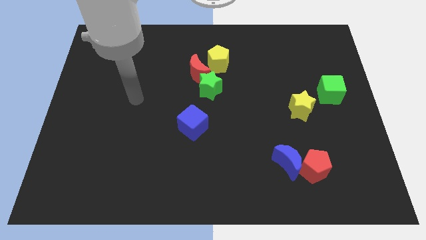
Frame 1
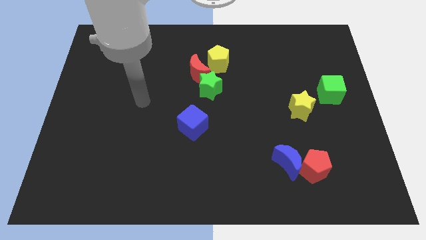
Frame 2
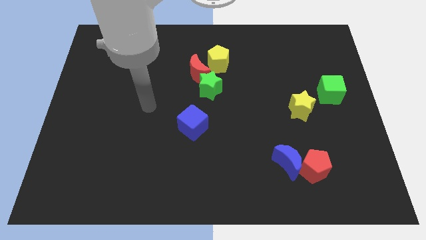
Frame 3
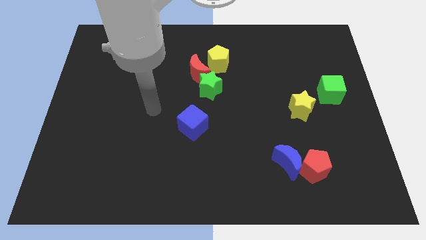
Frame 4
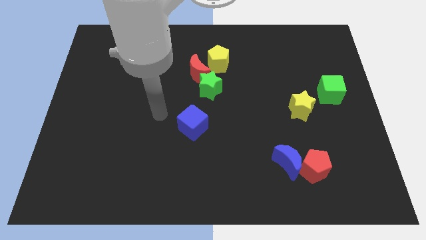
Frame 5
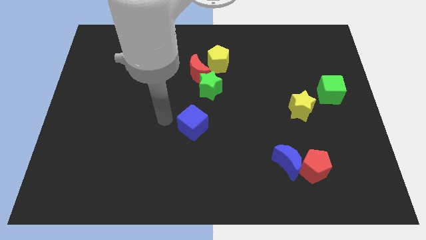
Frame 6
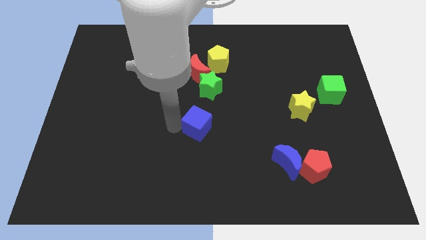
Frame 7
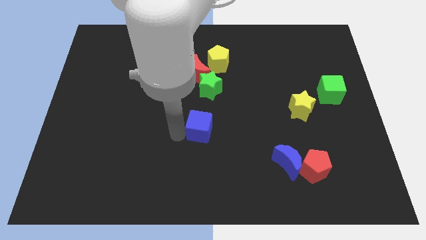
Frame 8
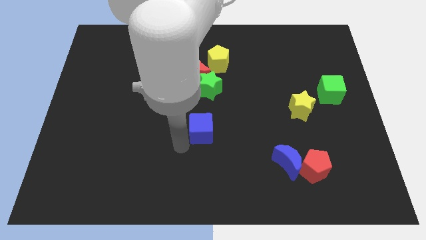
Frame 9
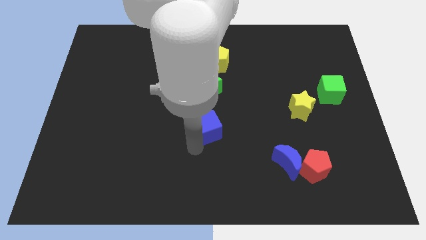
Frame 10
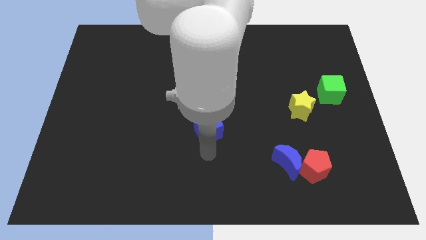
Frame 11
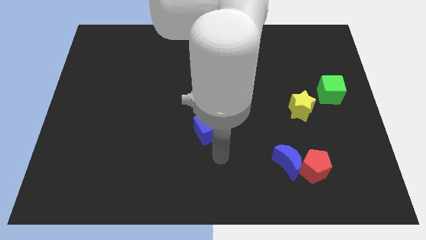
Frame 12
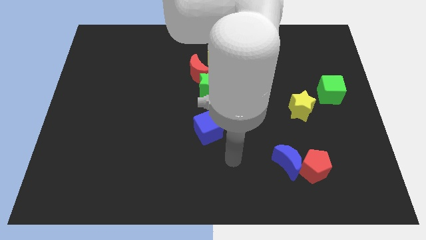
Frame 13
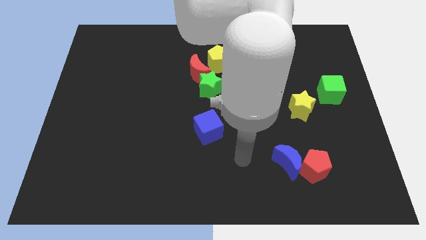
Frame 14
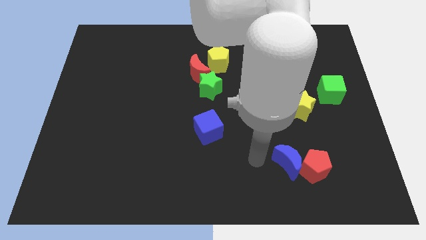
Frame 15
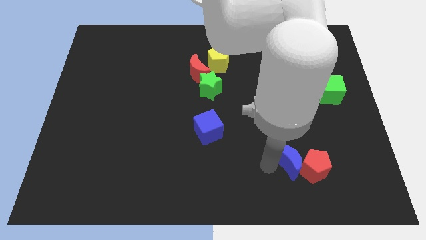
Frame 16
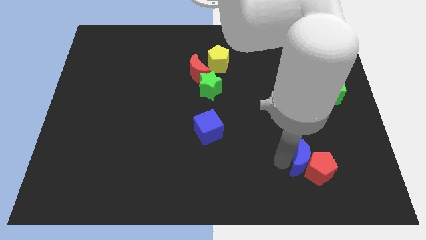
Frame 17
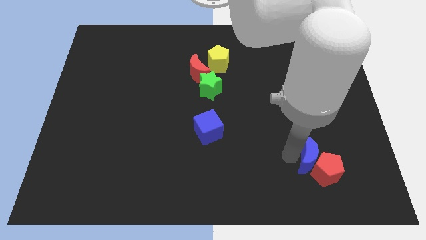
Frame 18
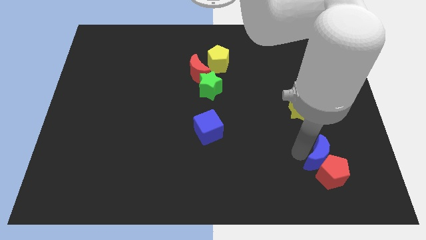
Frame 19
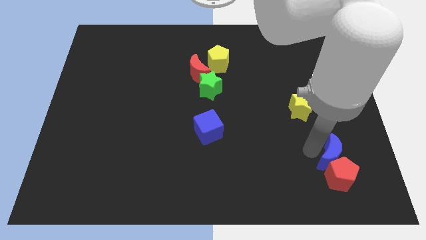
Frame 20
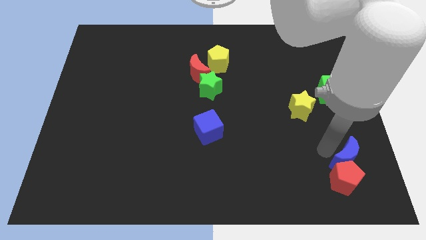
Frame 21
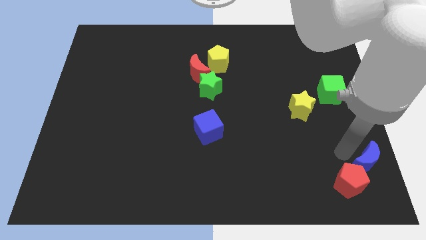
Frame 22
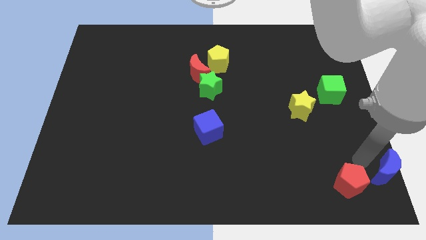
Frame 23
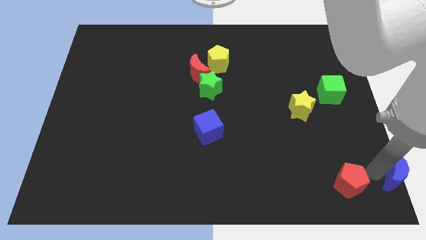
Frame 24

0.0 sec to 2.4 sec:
move the red pentagon away from the blue moon

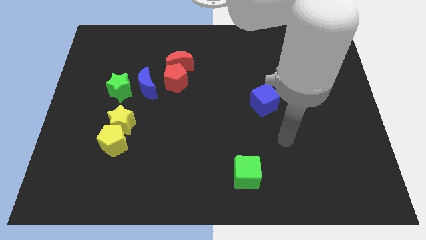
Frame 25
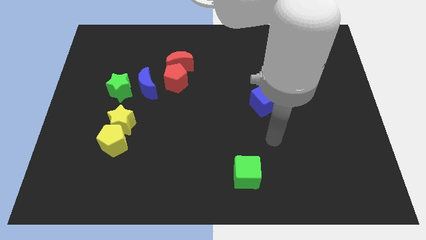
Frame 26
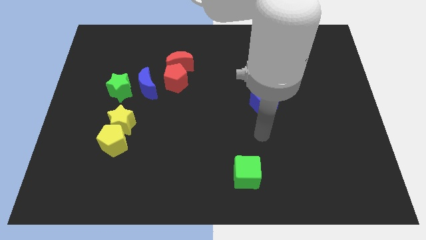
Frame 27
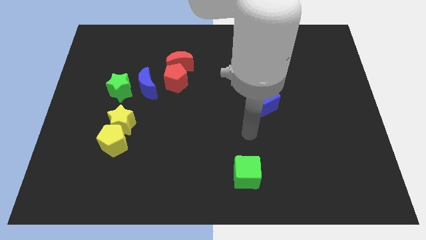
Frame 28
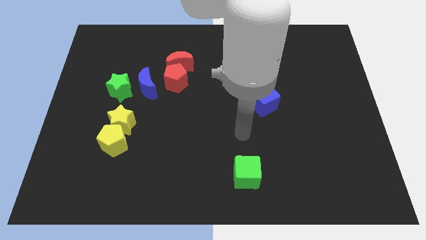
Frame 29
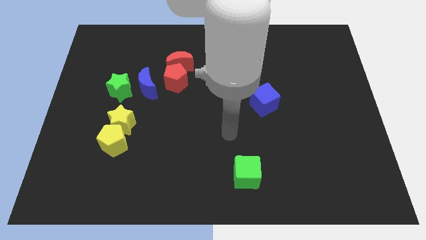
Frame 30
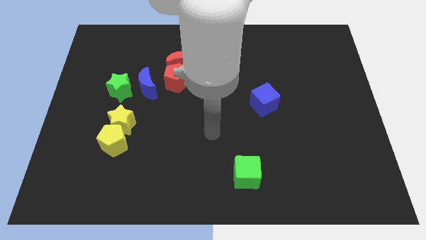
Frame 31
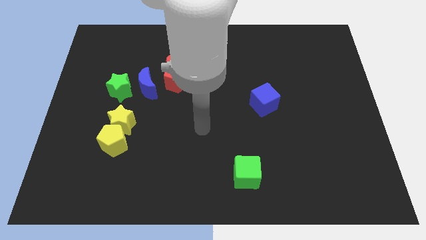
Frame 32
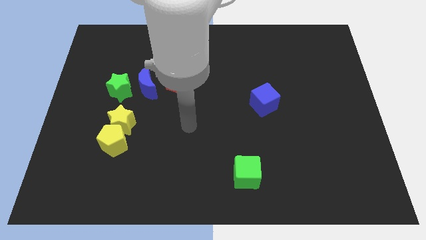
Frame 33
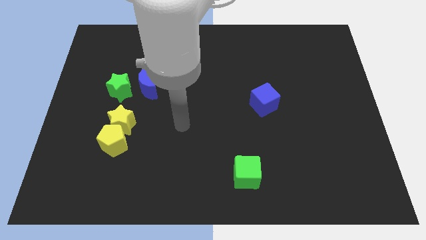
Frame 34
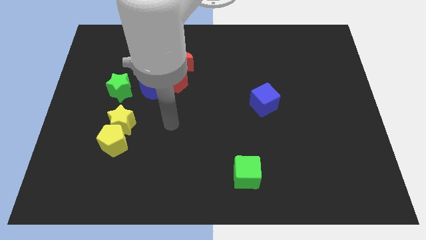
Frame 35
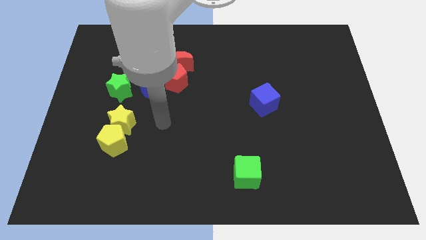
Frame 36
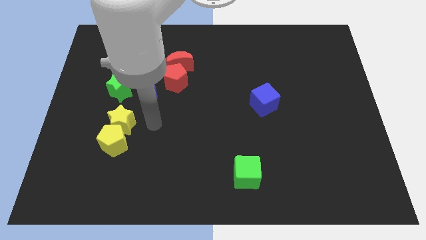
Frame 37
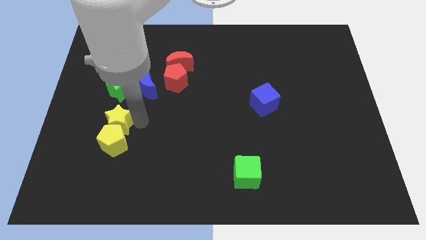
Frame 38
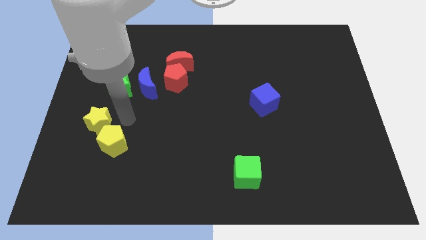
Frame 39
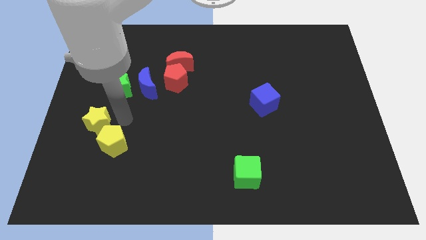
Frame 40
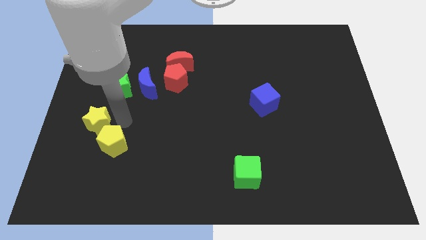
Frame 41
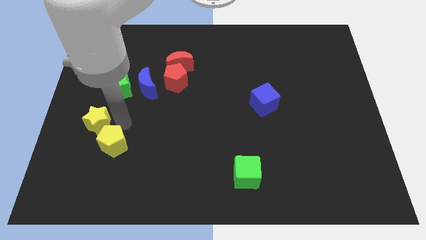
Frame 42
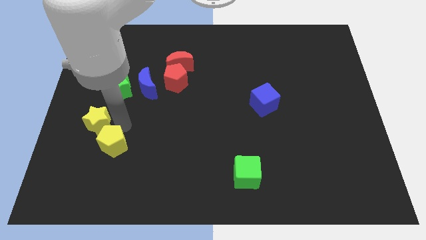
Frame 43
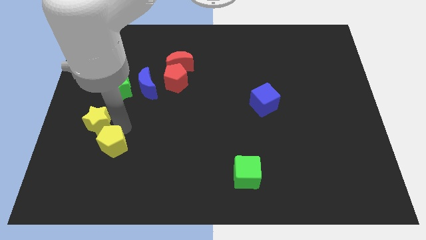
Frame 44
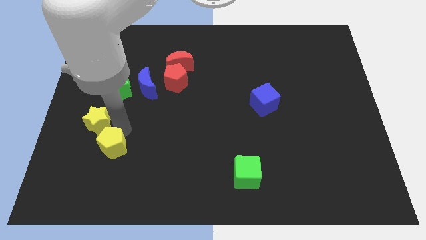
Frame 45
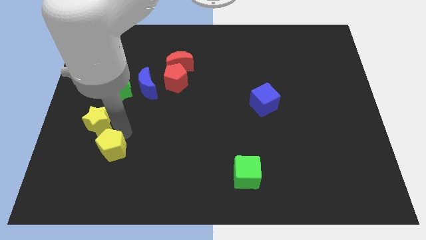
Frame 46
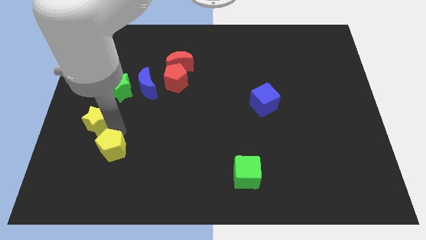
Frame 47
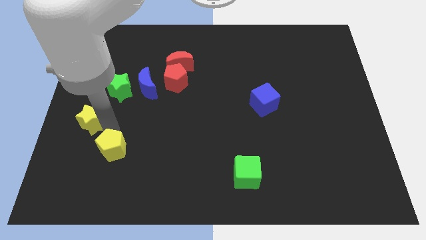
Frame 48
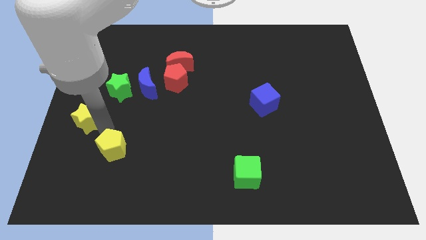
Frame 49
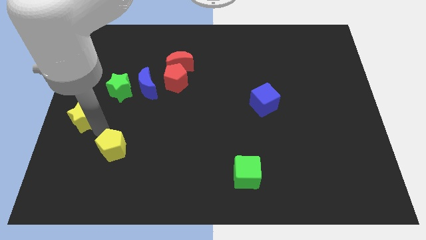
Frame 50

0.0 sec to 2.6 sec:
move the yellow pentagon away from the yellow star

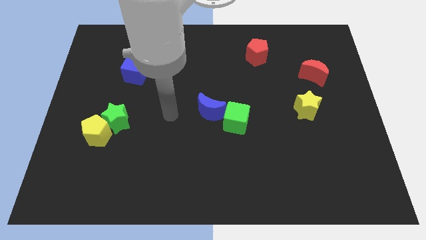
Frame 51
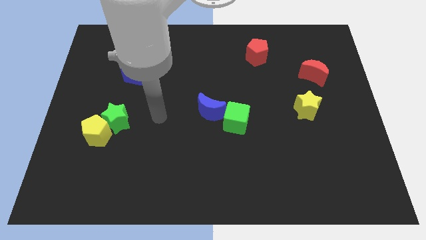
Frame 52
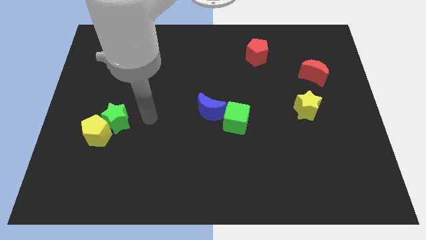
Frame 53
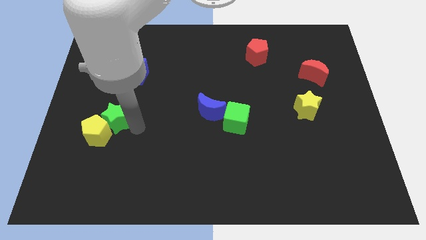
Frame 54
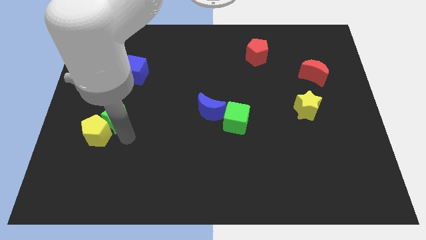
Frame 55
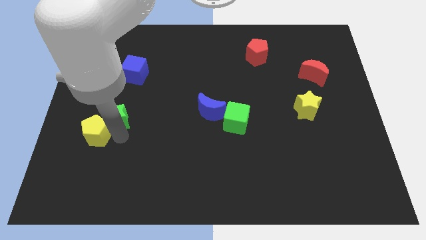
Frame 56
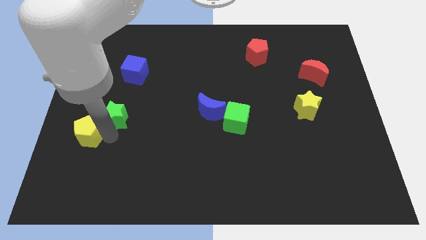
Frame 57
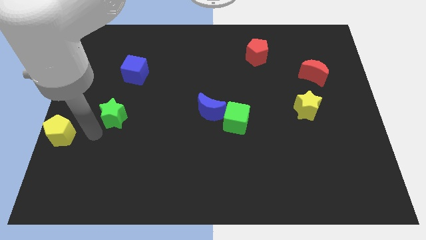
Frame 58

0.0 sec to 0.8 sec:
separate the green star from the yellow pentagon

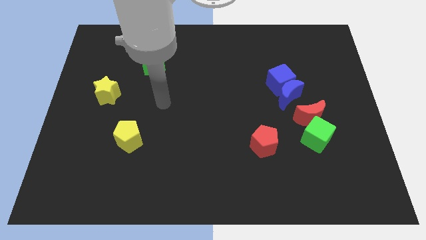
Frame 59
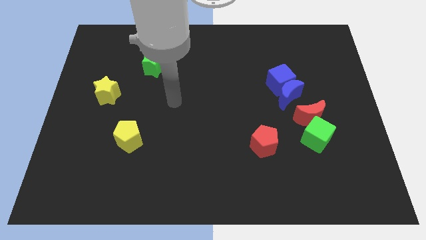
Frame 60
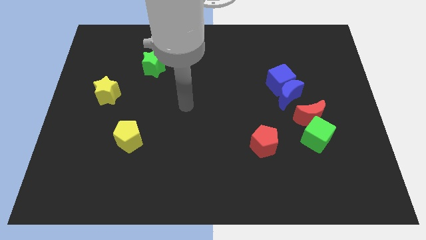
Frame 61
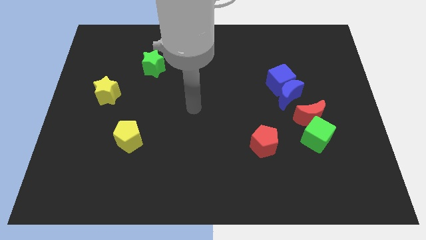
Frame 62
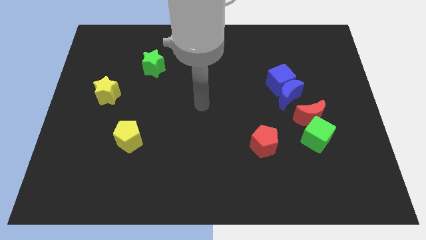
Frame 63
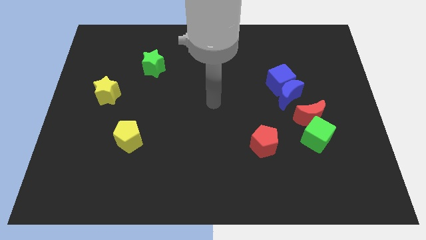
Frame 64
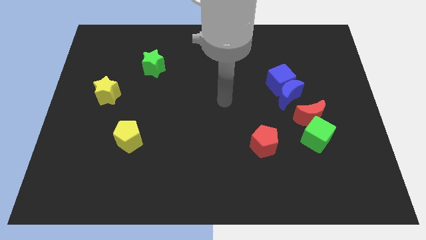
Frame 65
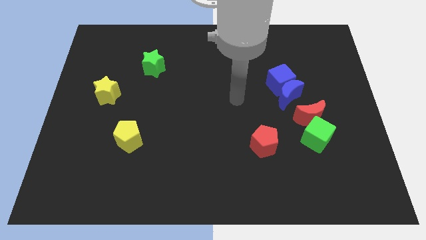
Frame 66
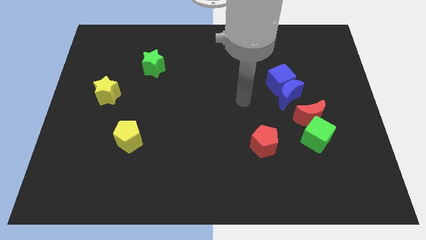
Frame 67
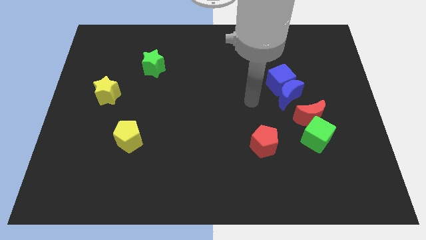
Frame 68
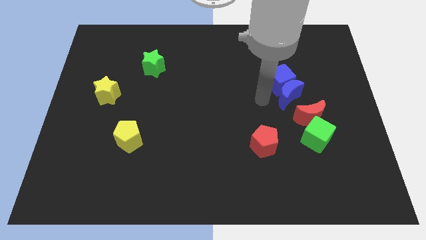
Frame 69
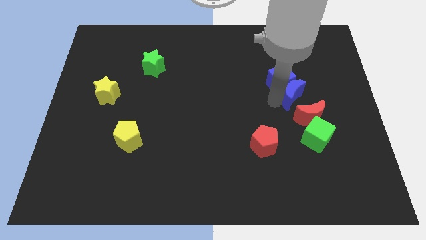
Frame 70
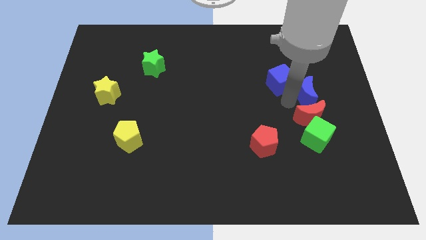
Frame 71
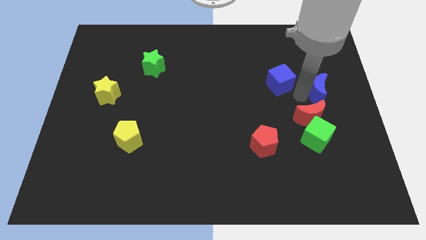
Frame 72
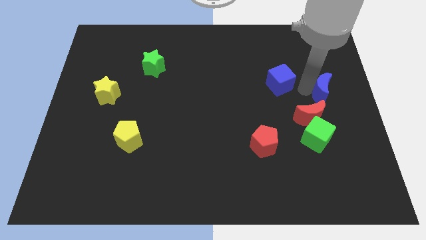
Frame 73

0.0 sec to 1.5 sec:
separate the blue cube from the blue moon

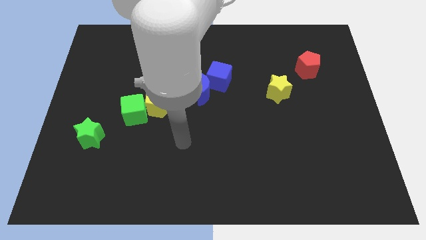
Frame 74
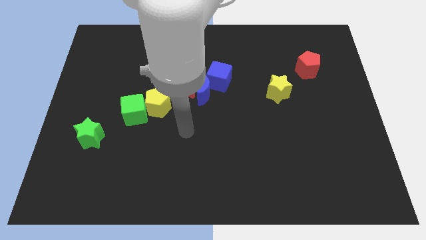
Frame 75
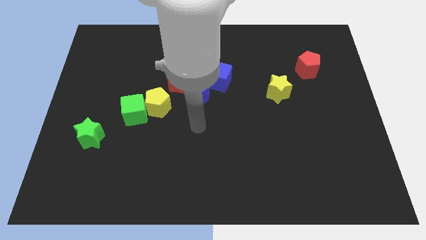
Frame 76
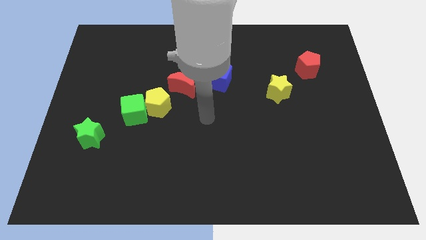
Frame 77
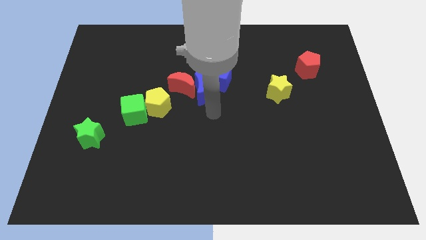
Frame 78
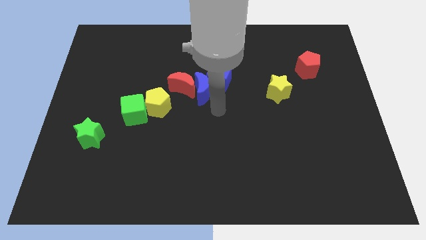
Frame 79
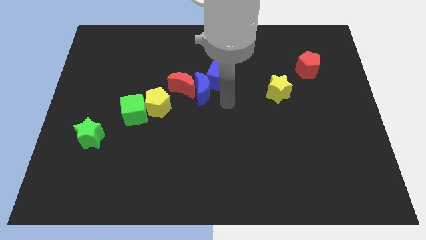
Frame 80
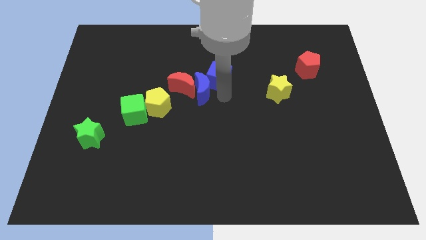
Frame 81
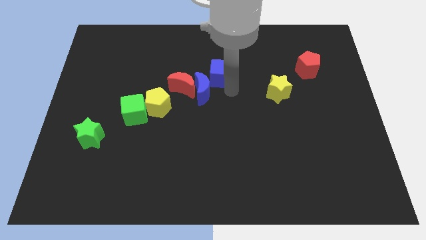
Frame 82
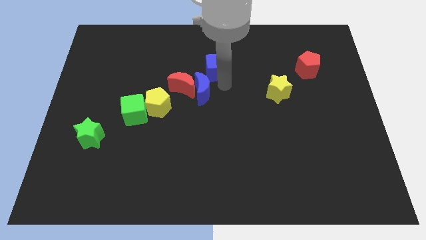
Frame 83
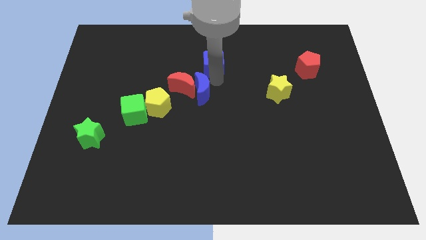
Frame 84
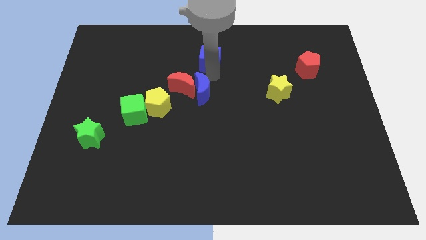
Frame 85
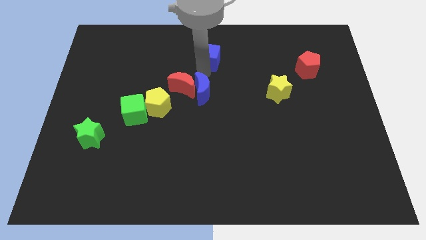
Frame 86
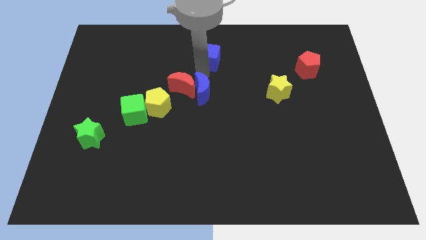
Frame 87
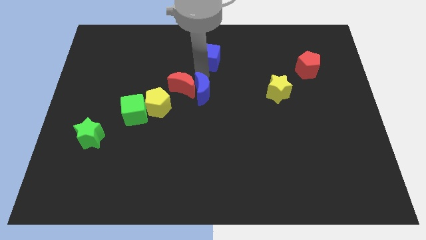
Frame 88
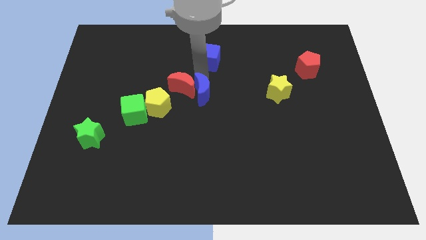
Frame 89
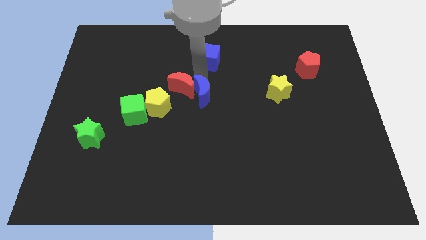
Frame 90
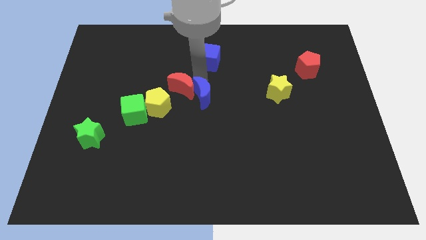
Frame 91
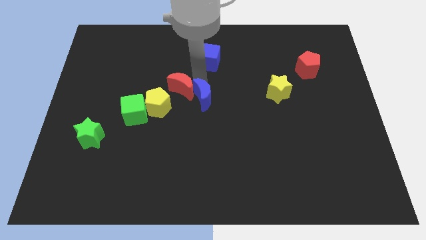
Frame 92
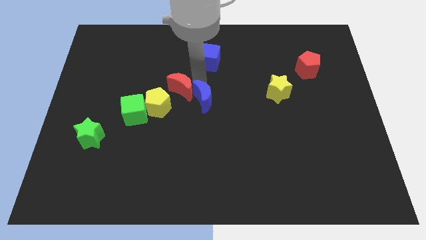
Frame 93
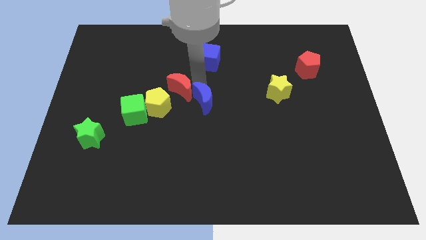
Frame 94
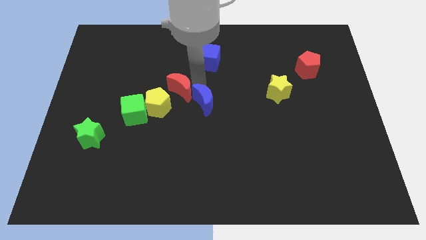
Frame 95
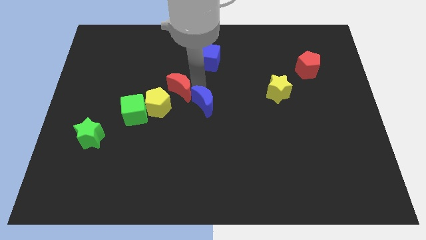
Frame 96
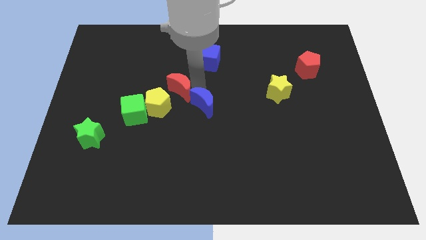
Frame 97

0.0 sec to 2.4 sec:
pull the blue moon apart from the red moon and blue cube
